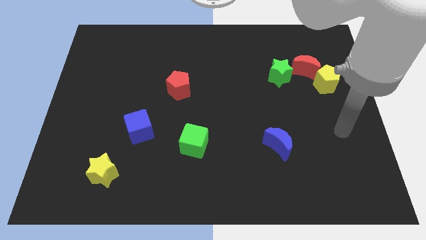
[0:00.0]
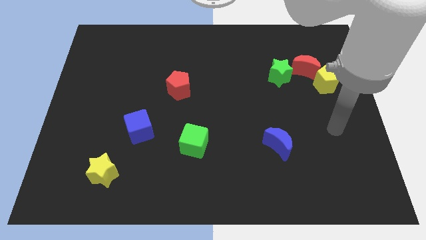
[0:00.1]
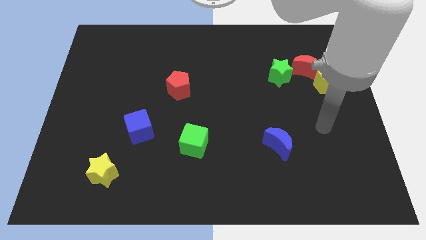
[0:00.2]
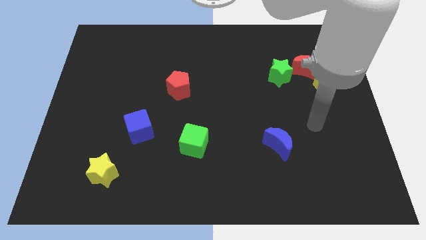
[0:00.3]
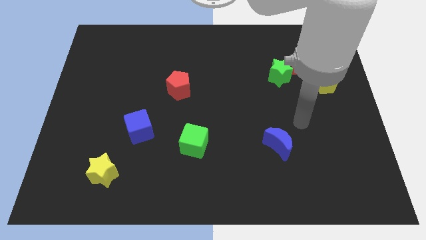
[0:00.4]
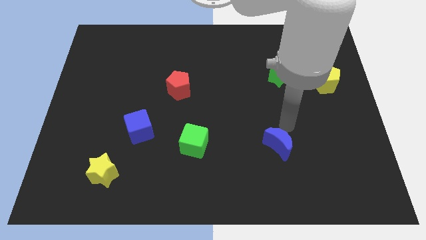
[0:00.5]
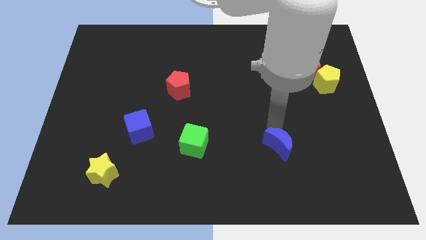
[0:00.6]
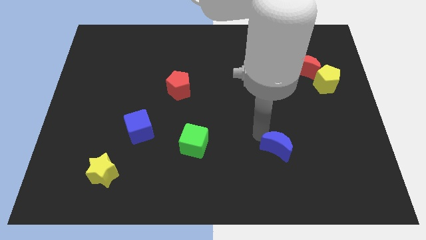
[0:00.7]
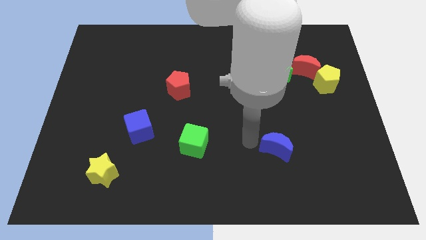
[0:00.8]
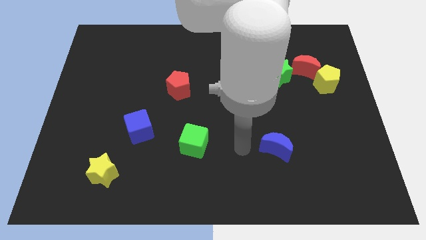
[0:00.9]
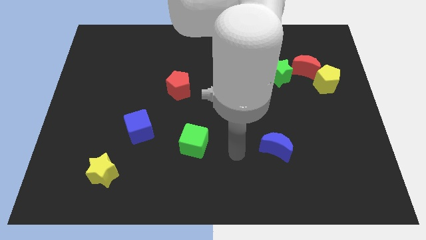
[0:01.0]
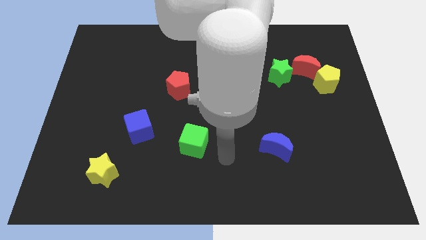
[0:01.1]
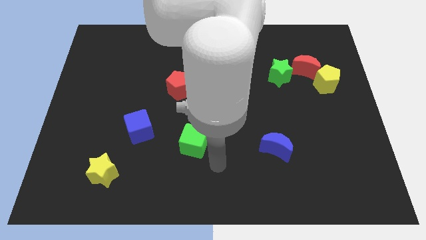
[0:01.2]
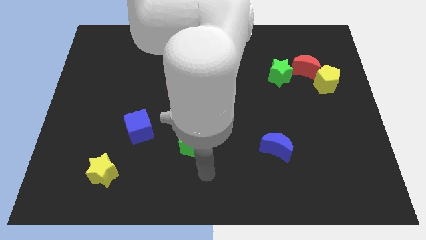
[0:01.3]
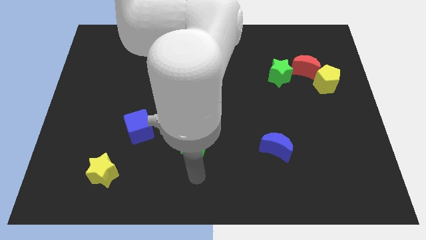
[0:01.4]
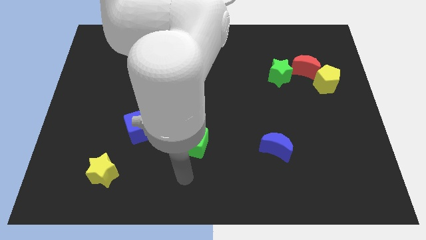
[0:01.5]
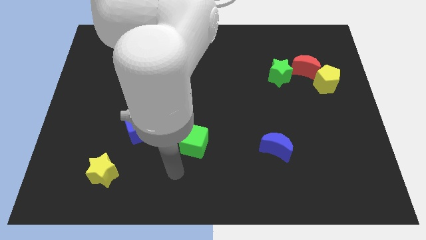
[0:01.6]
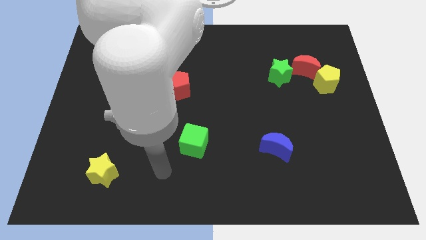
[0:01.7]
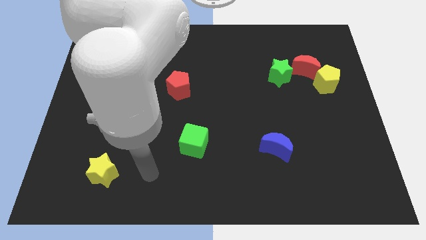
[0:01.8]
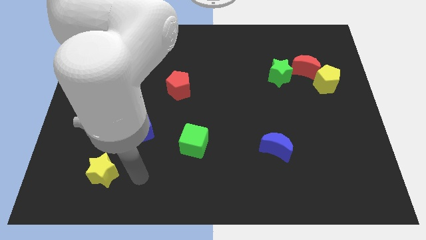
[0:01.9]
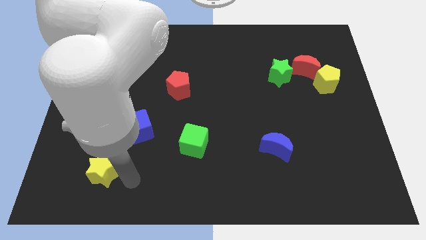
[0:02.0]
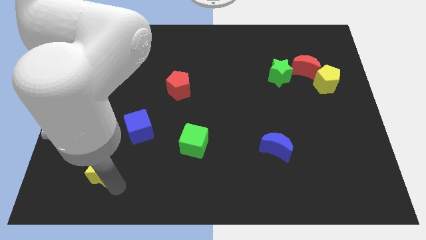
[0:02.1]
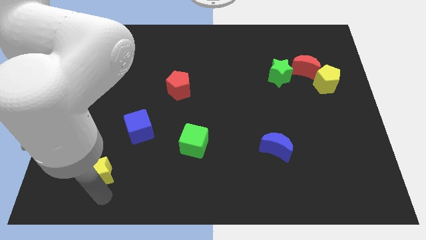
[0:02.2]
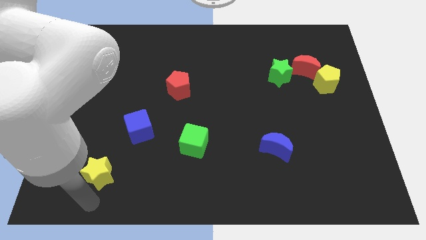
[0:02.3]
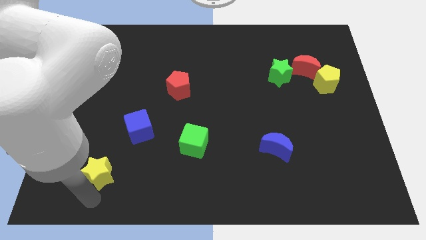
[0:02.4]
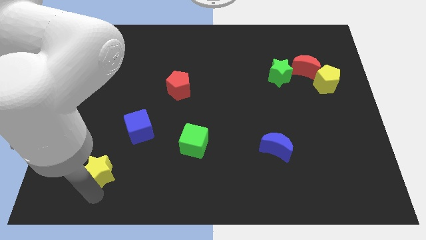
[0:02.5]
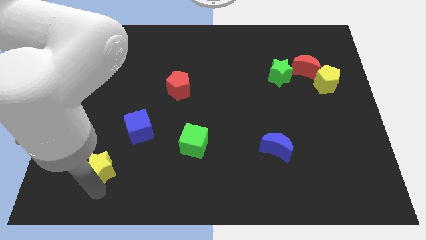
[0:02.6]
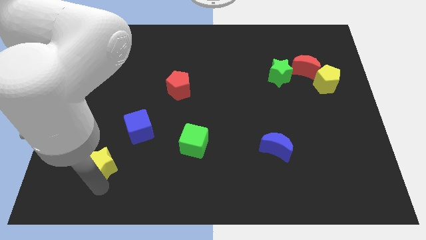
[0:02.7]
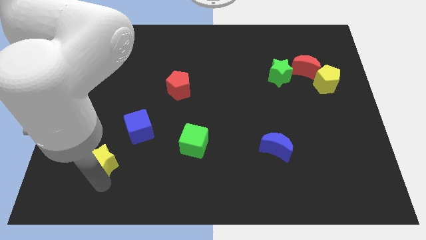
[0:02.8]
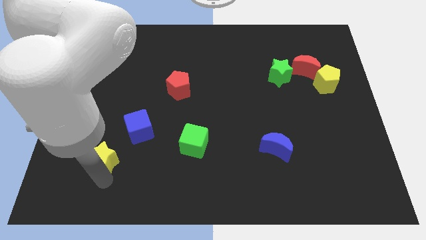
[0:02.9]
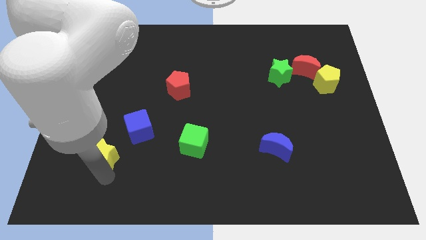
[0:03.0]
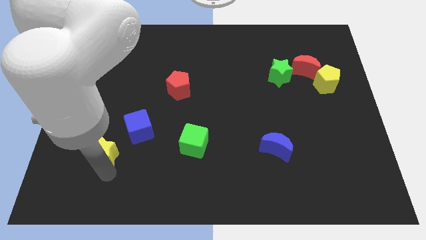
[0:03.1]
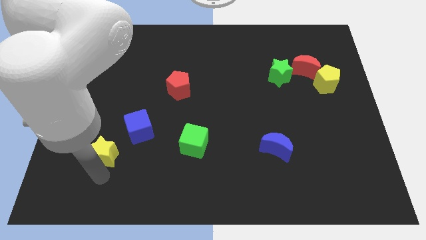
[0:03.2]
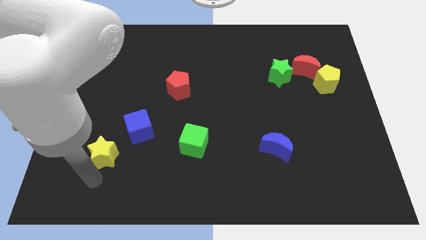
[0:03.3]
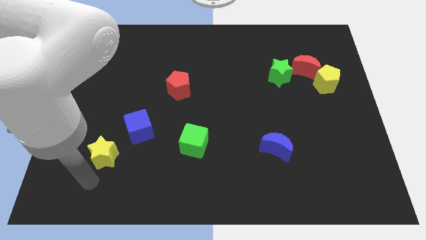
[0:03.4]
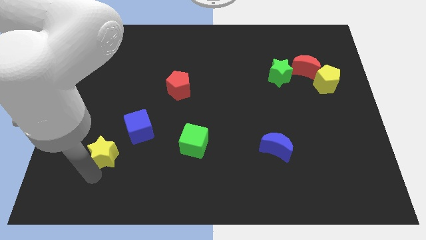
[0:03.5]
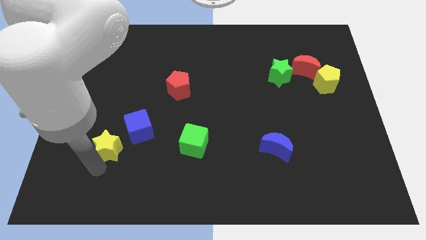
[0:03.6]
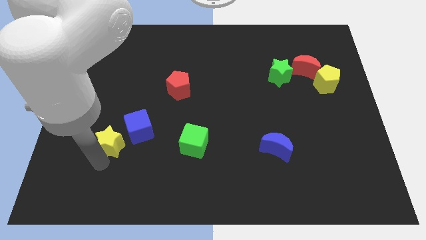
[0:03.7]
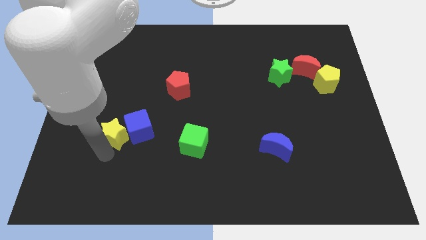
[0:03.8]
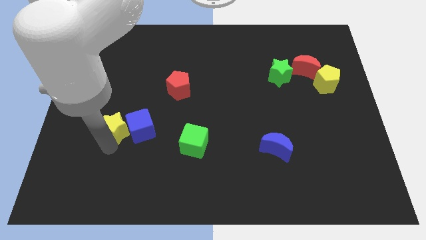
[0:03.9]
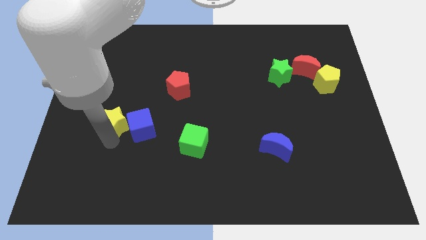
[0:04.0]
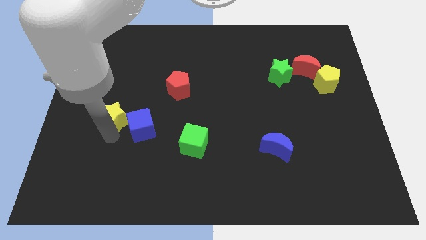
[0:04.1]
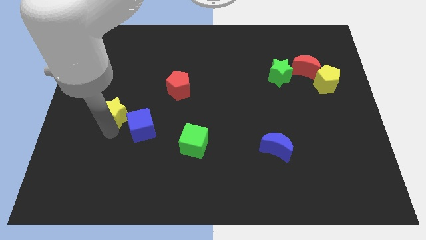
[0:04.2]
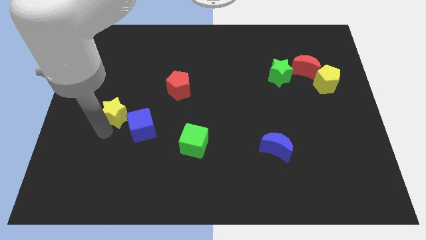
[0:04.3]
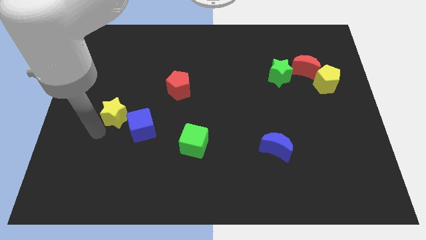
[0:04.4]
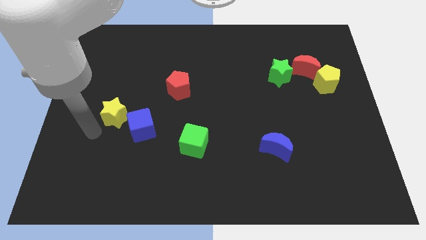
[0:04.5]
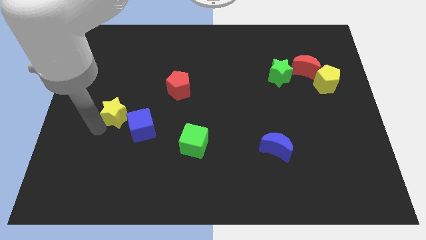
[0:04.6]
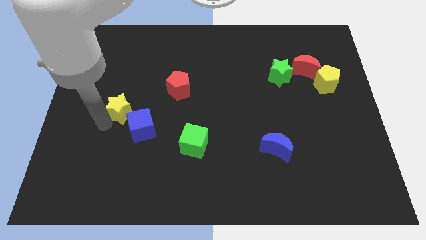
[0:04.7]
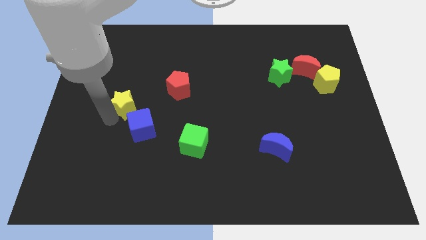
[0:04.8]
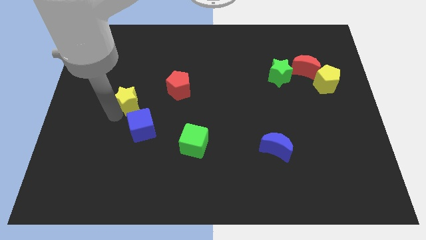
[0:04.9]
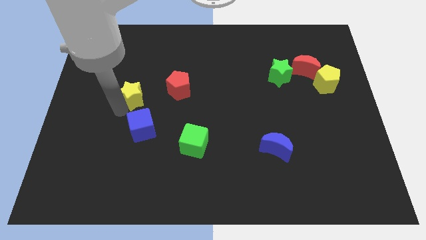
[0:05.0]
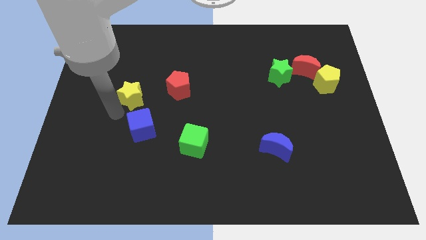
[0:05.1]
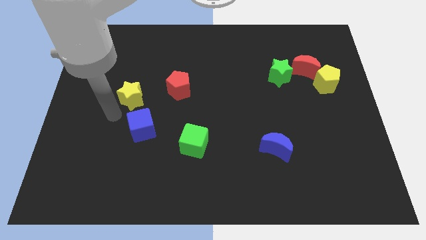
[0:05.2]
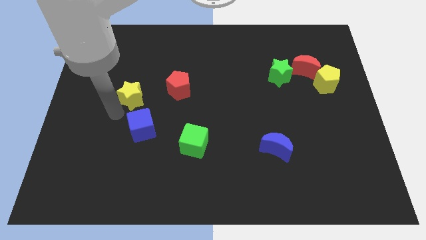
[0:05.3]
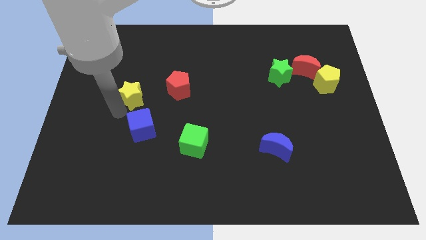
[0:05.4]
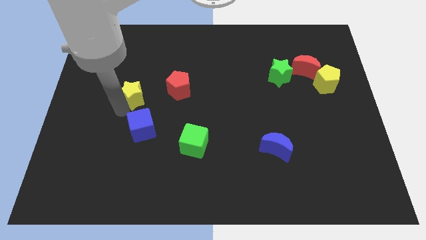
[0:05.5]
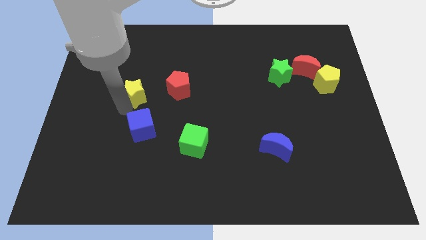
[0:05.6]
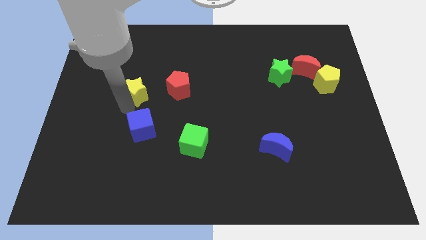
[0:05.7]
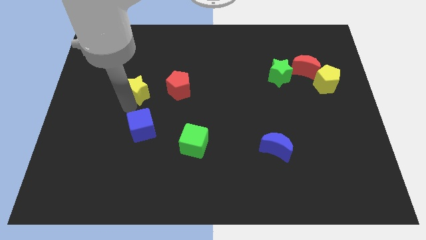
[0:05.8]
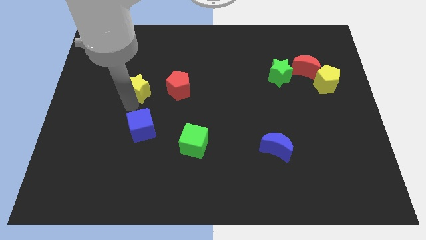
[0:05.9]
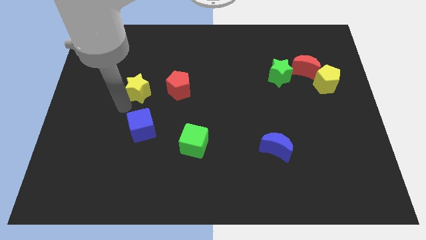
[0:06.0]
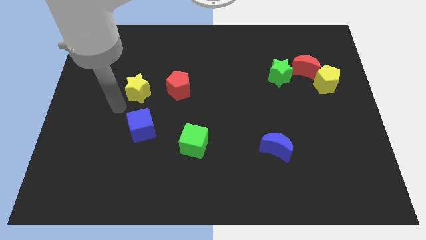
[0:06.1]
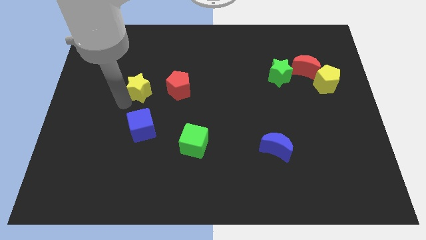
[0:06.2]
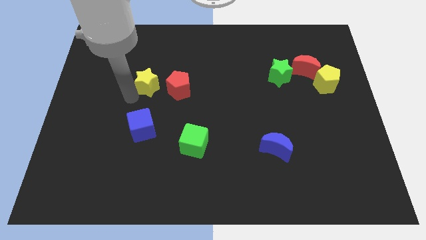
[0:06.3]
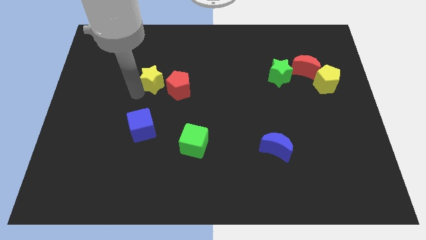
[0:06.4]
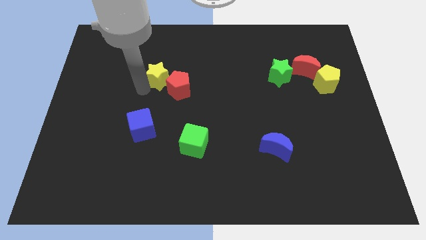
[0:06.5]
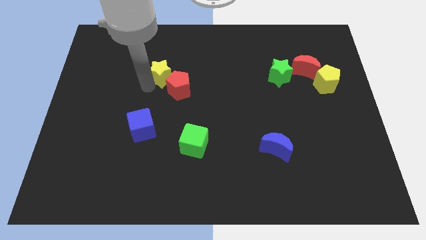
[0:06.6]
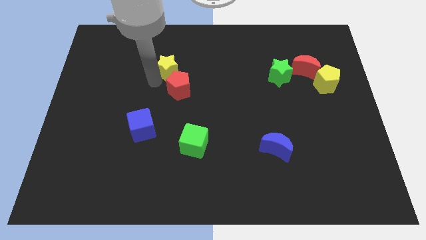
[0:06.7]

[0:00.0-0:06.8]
push the yellow star to the top of the red pentagon
